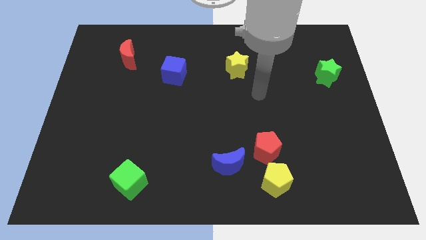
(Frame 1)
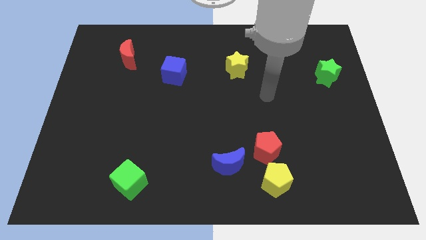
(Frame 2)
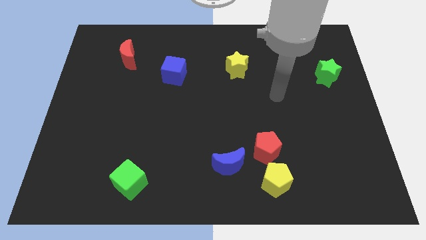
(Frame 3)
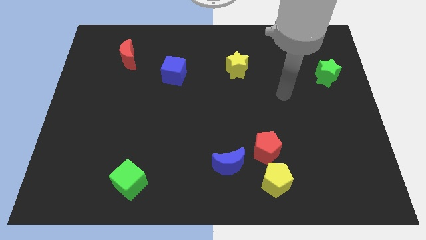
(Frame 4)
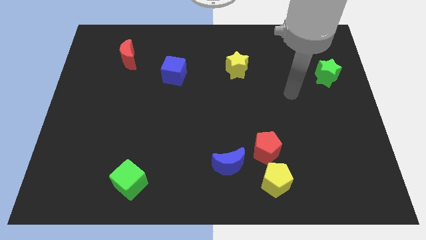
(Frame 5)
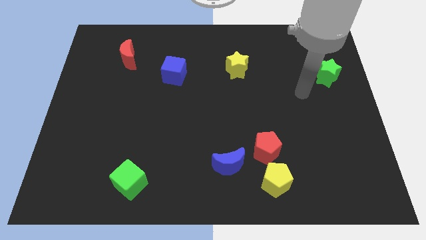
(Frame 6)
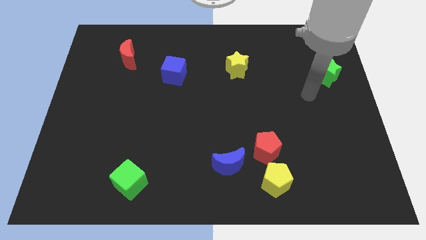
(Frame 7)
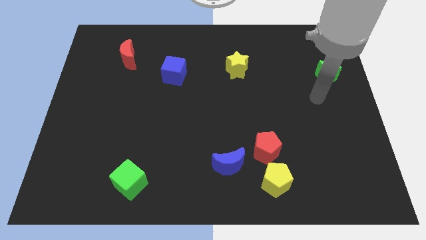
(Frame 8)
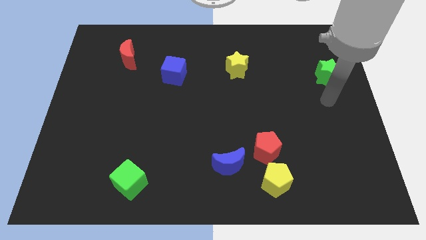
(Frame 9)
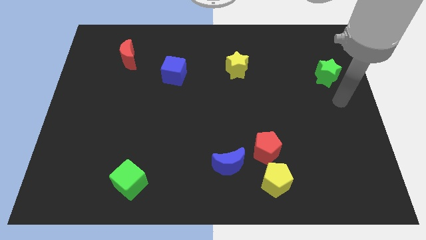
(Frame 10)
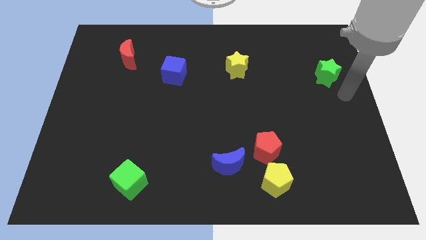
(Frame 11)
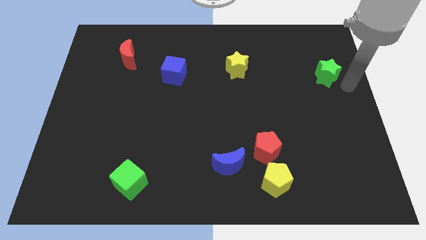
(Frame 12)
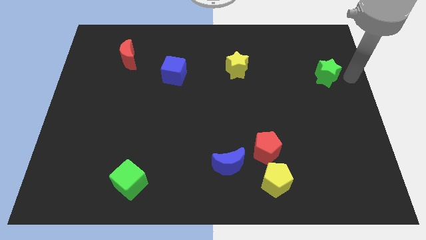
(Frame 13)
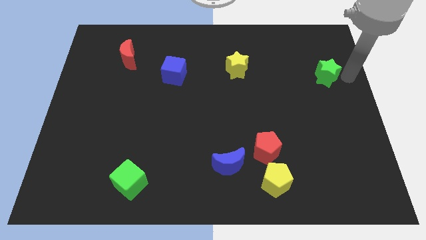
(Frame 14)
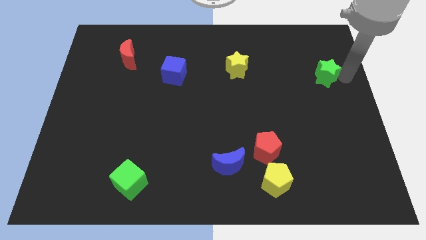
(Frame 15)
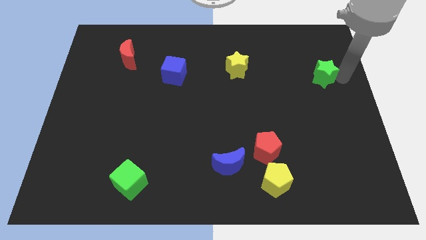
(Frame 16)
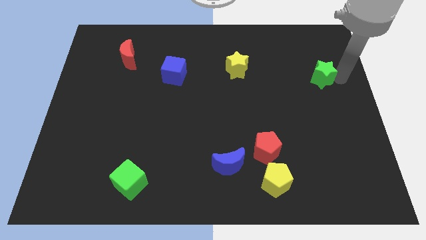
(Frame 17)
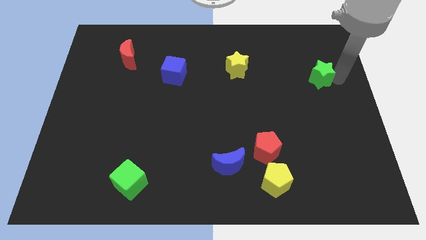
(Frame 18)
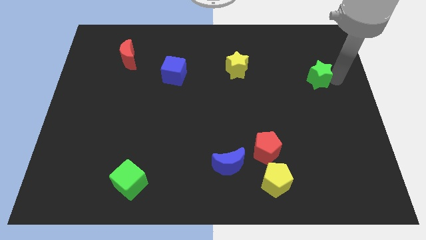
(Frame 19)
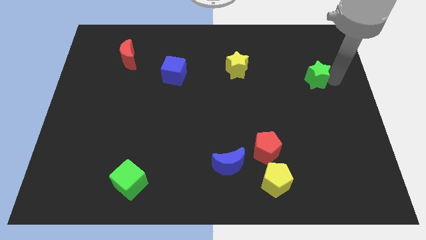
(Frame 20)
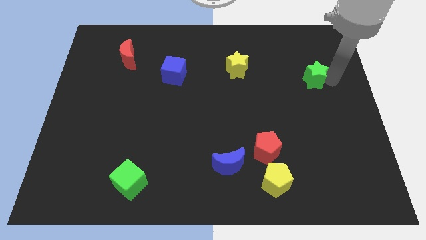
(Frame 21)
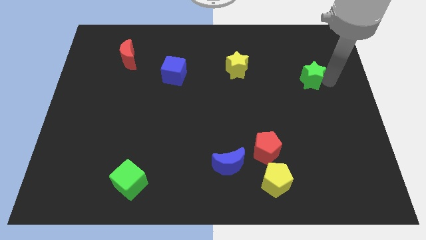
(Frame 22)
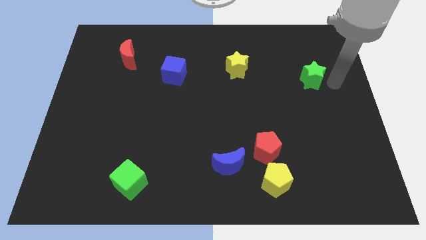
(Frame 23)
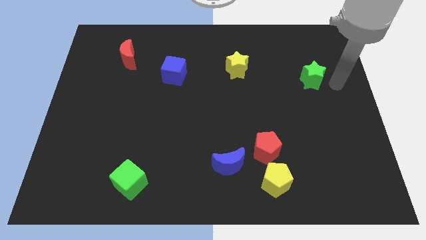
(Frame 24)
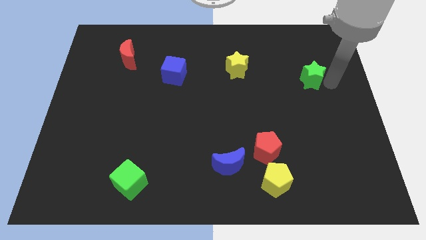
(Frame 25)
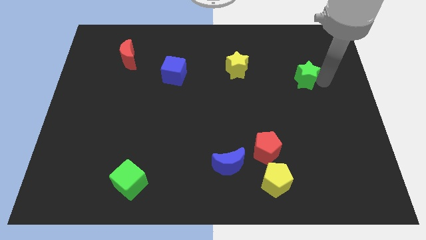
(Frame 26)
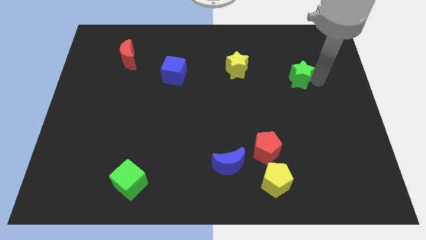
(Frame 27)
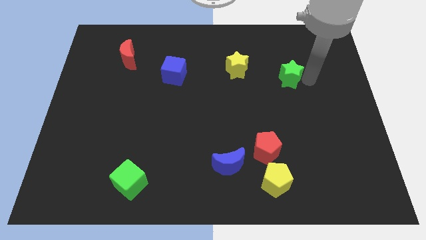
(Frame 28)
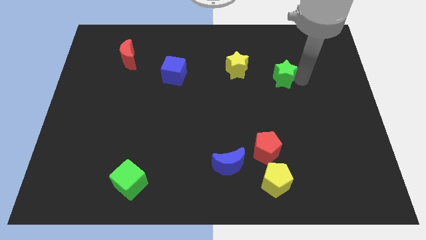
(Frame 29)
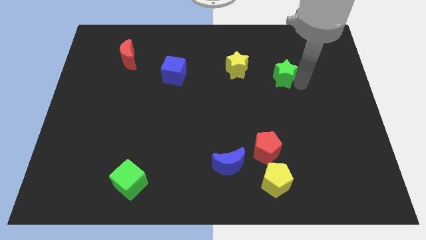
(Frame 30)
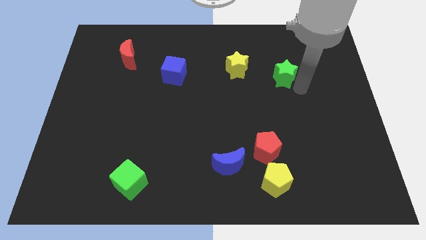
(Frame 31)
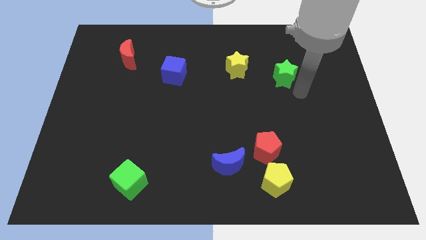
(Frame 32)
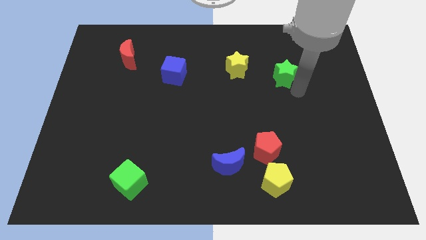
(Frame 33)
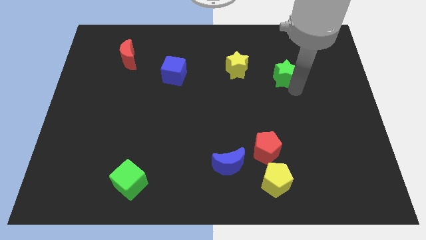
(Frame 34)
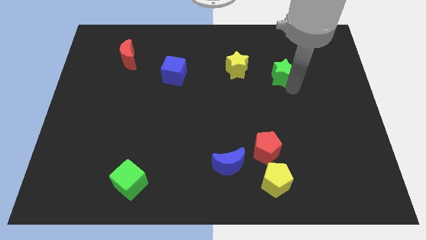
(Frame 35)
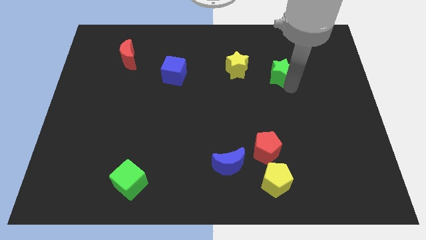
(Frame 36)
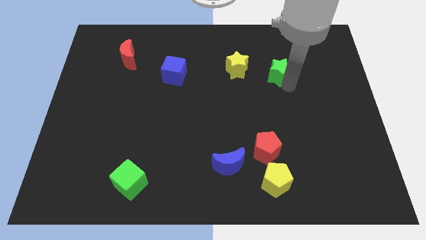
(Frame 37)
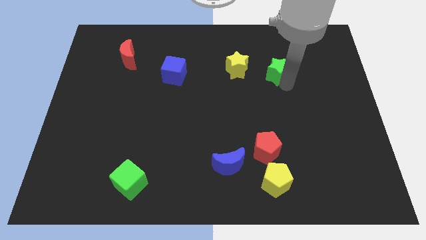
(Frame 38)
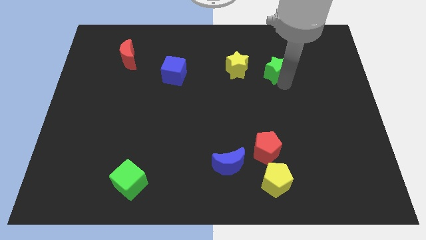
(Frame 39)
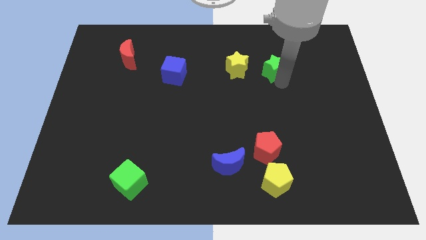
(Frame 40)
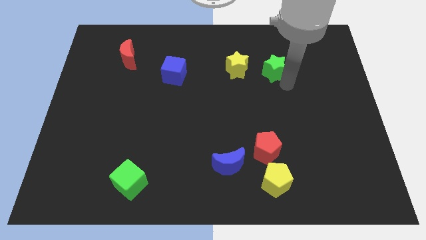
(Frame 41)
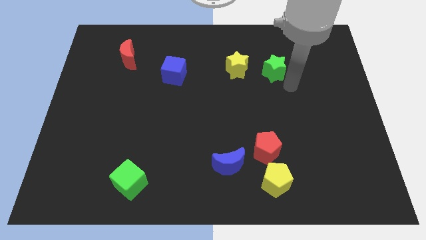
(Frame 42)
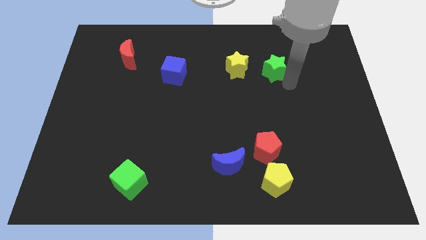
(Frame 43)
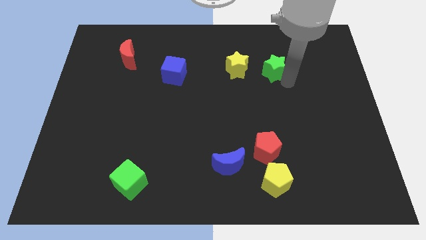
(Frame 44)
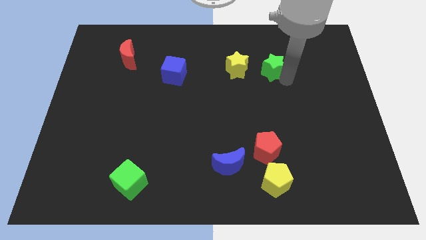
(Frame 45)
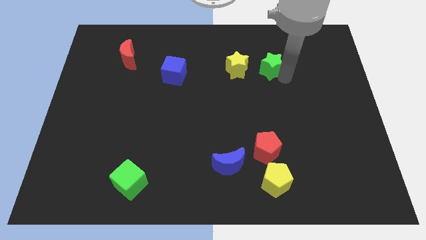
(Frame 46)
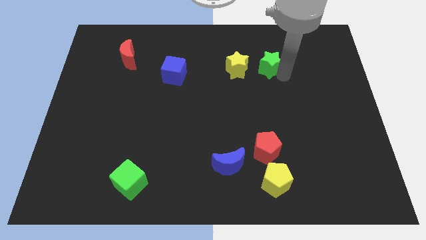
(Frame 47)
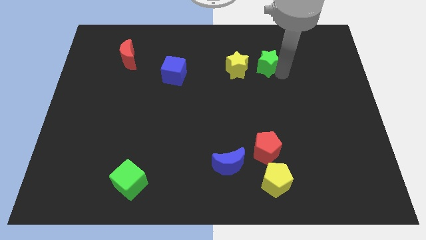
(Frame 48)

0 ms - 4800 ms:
move the green star diagonally up and to the right of the yellow star

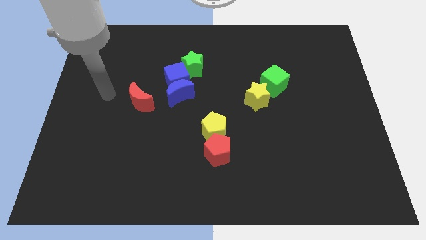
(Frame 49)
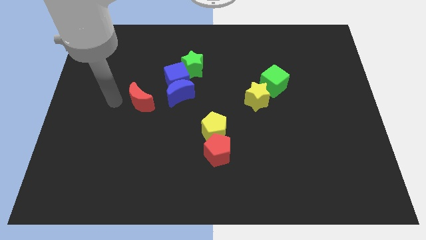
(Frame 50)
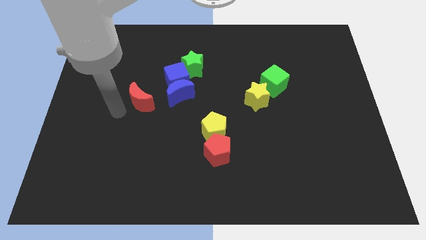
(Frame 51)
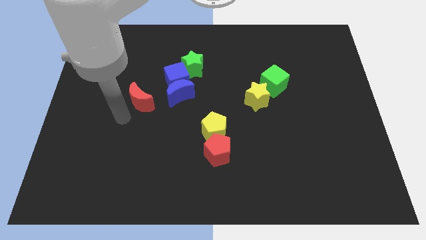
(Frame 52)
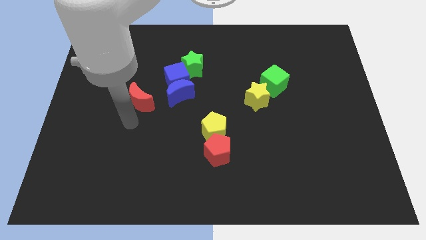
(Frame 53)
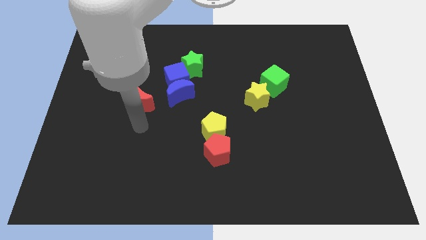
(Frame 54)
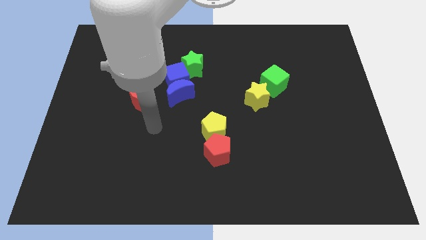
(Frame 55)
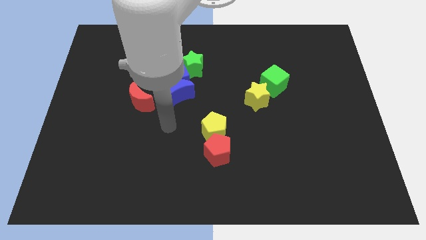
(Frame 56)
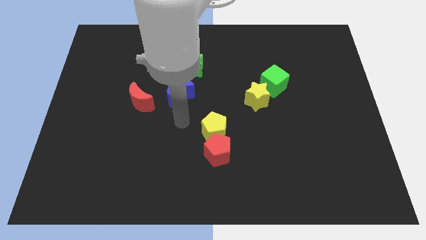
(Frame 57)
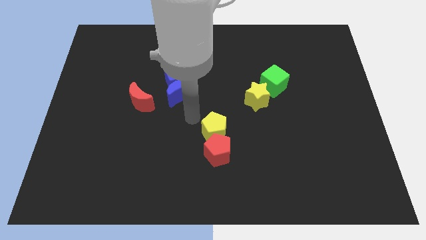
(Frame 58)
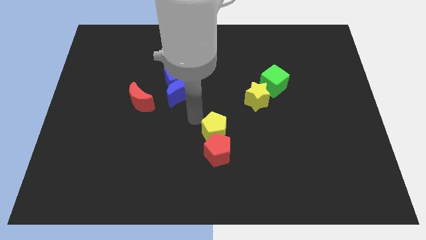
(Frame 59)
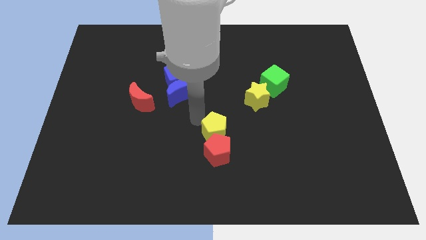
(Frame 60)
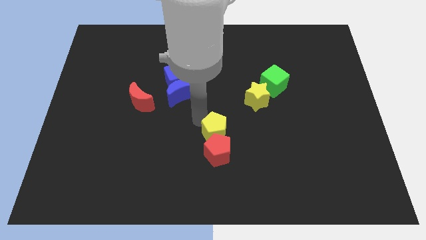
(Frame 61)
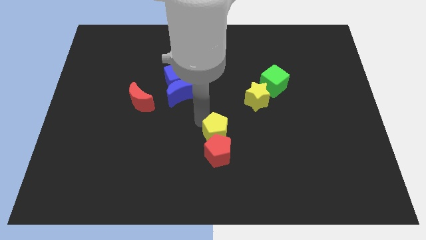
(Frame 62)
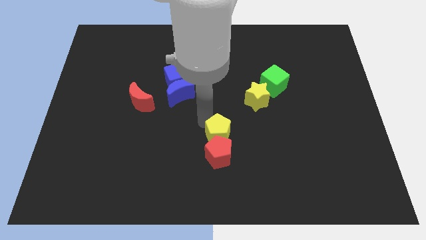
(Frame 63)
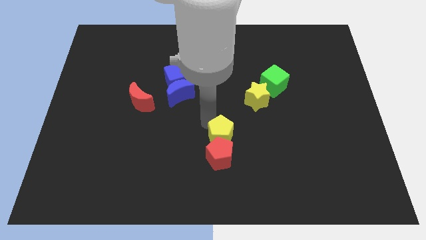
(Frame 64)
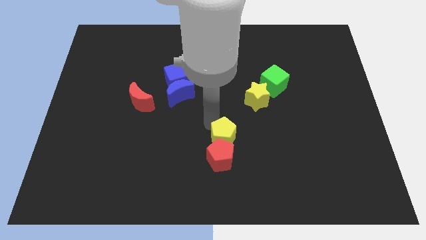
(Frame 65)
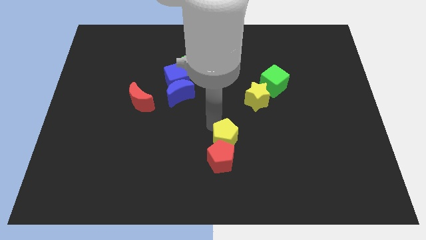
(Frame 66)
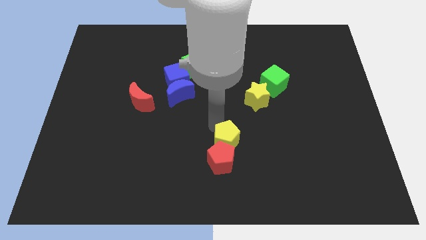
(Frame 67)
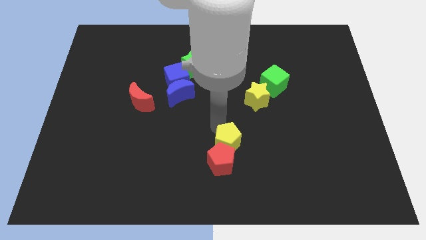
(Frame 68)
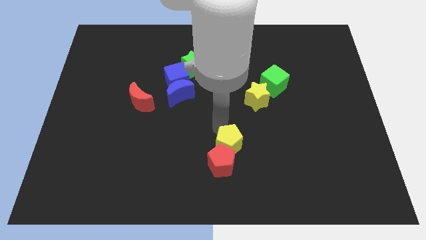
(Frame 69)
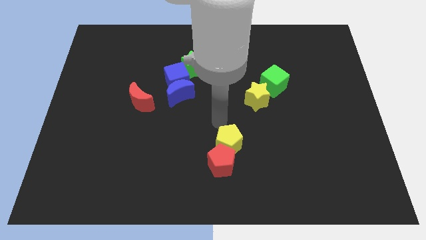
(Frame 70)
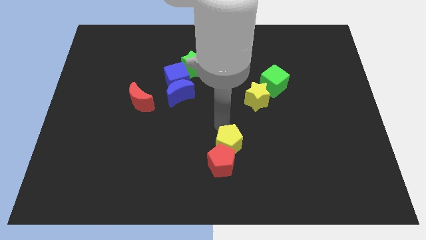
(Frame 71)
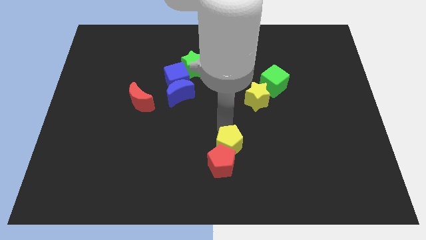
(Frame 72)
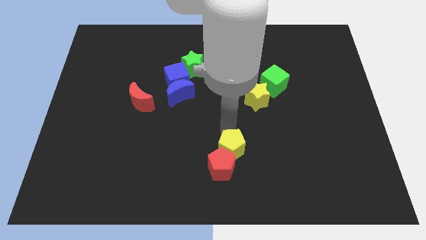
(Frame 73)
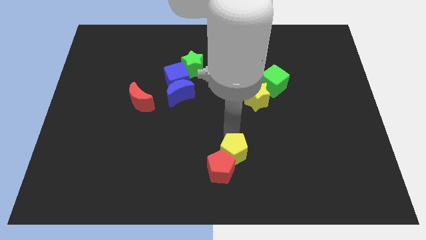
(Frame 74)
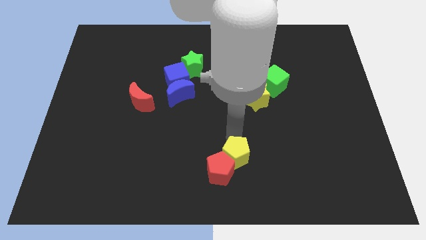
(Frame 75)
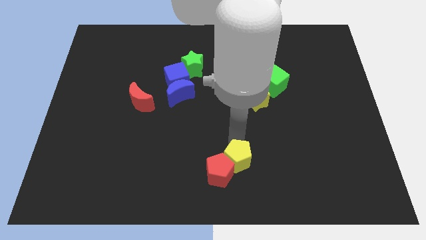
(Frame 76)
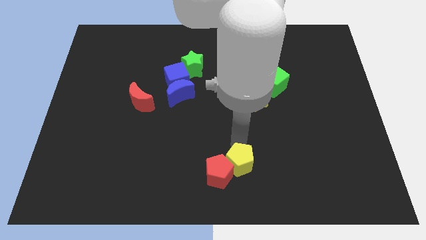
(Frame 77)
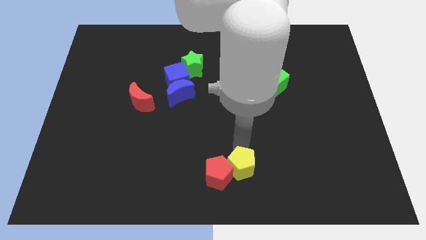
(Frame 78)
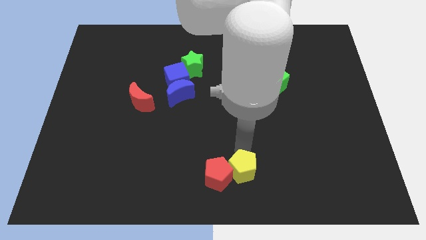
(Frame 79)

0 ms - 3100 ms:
slide the yellow pentagon to the bottom right of the red pentagon
